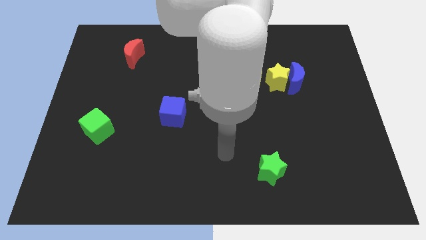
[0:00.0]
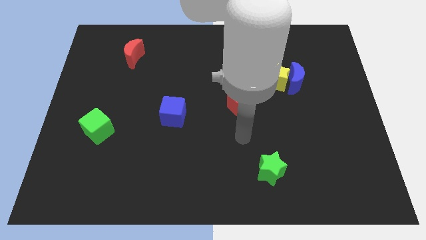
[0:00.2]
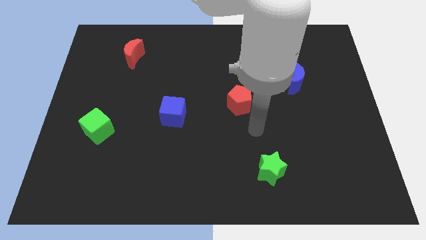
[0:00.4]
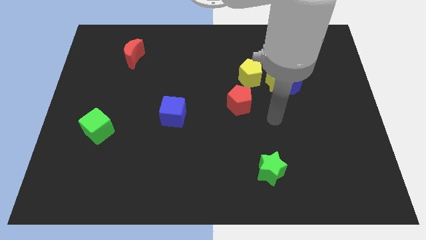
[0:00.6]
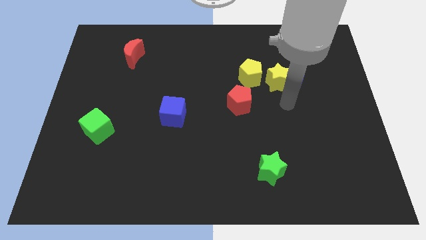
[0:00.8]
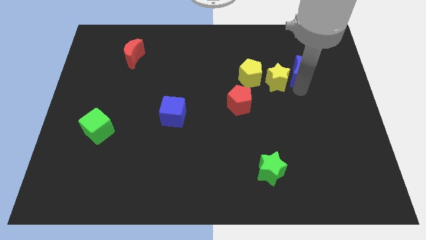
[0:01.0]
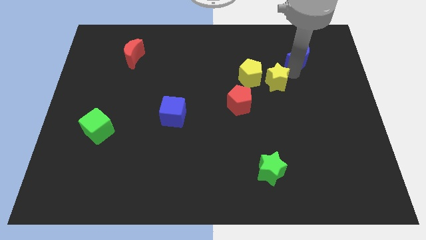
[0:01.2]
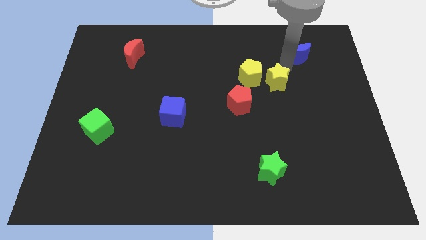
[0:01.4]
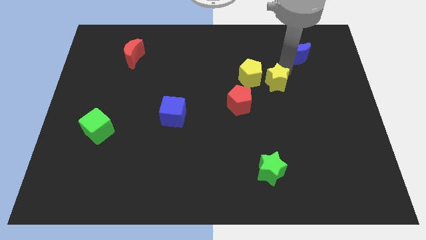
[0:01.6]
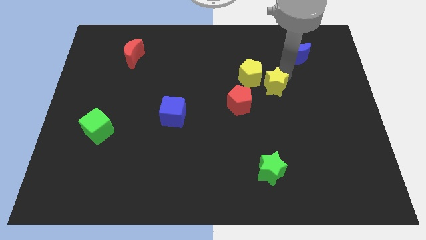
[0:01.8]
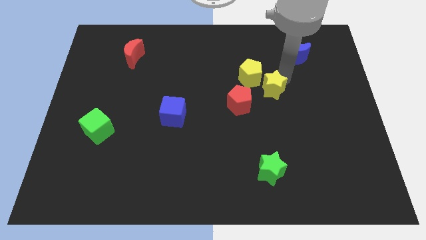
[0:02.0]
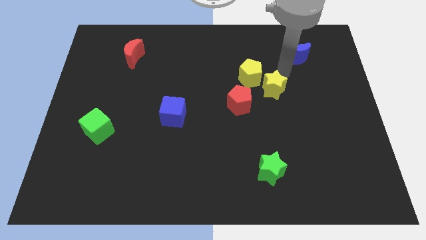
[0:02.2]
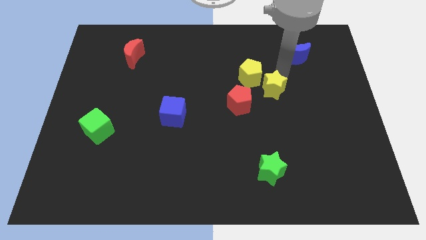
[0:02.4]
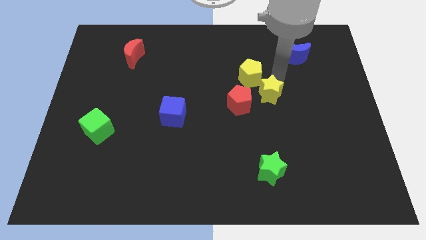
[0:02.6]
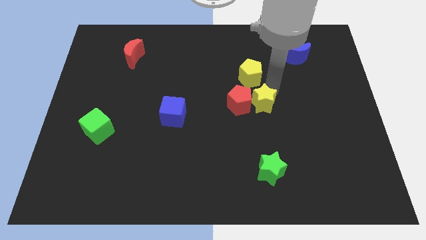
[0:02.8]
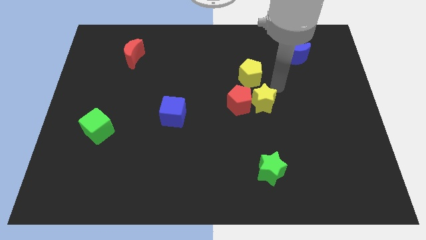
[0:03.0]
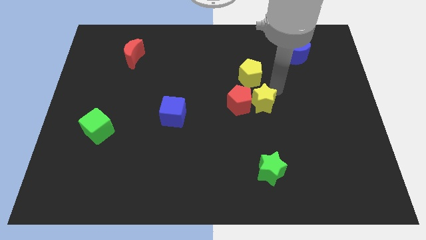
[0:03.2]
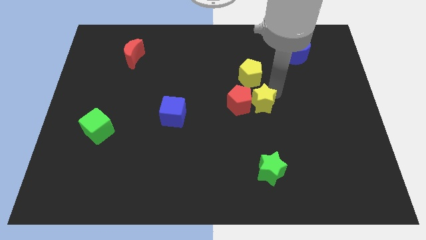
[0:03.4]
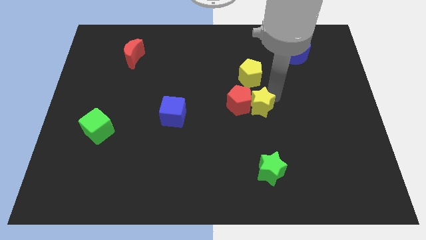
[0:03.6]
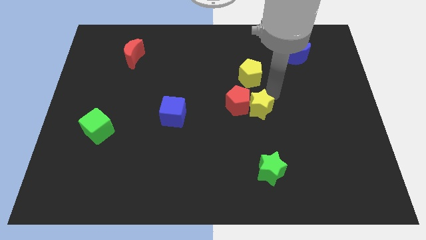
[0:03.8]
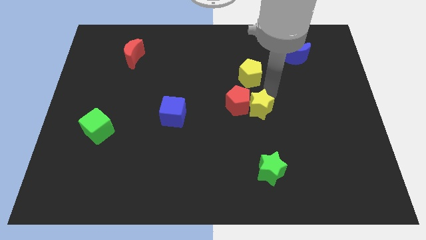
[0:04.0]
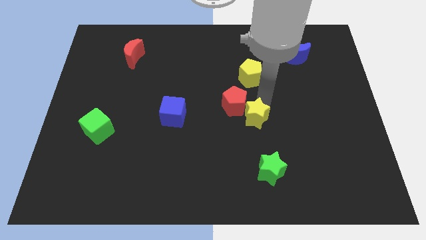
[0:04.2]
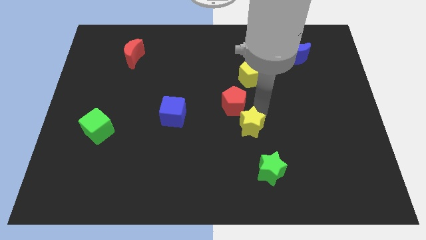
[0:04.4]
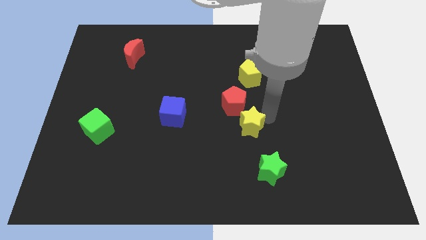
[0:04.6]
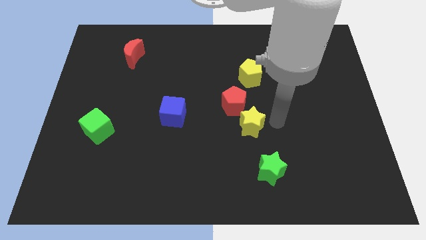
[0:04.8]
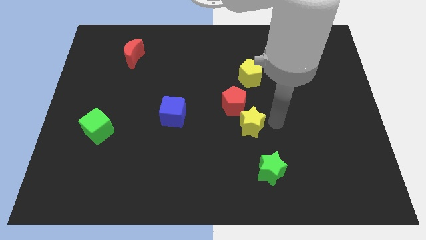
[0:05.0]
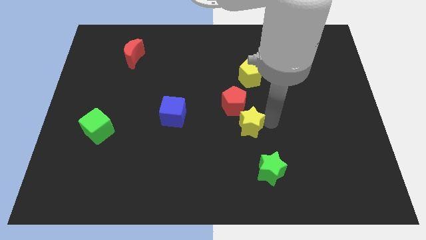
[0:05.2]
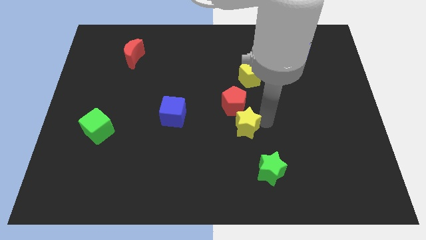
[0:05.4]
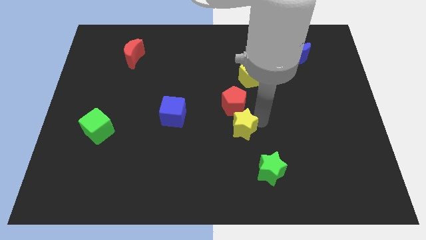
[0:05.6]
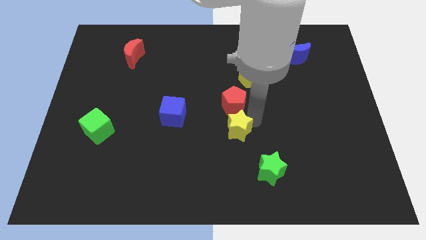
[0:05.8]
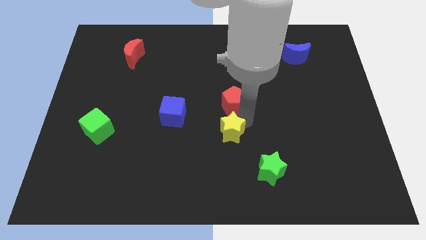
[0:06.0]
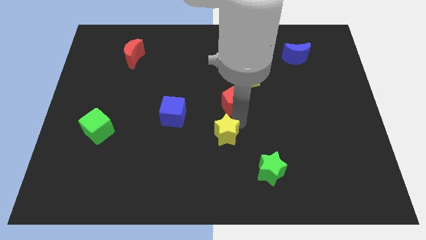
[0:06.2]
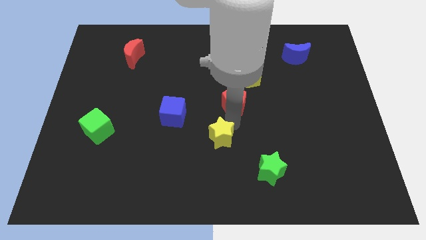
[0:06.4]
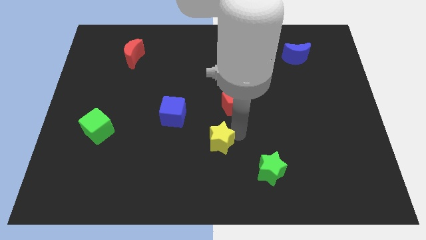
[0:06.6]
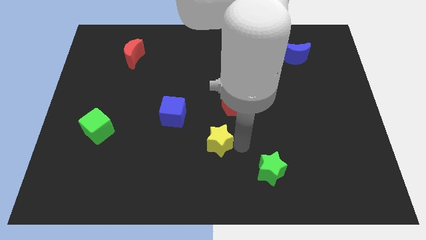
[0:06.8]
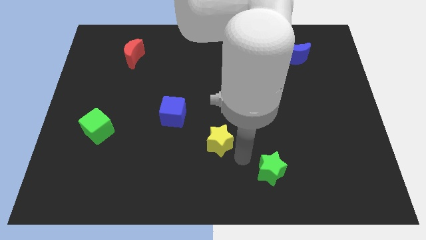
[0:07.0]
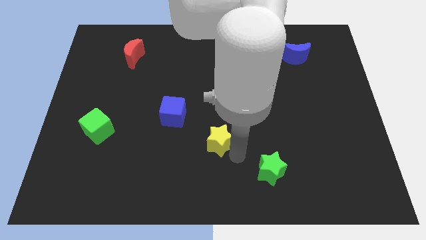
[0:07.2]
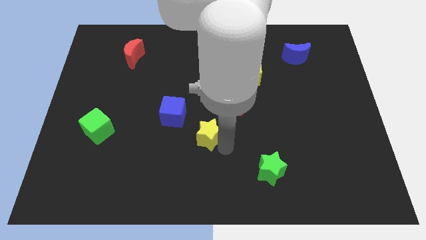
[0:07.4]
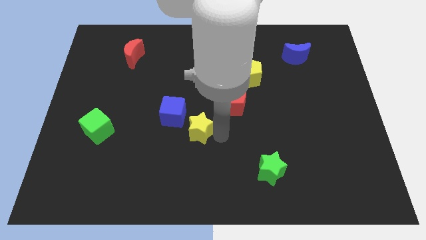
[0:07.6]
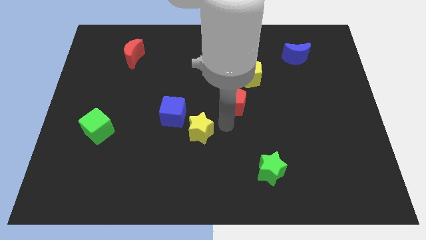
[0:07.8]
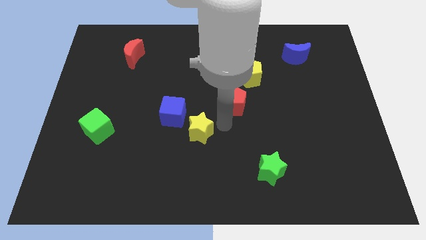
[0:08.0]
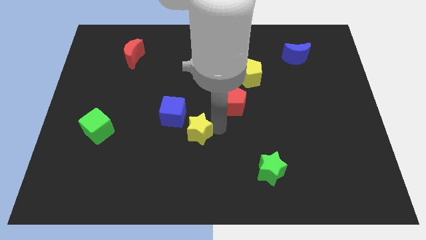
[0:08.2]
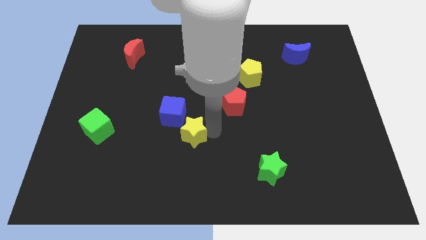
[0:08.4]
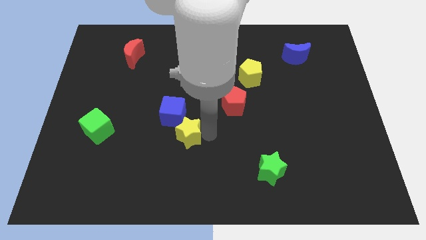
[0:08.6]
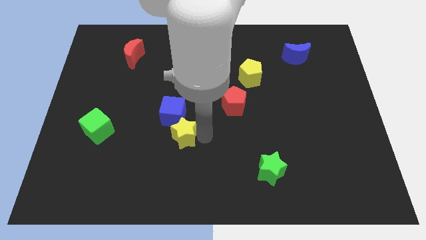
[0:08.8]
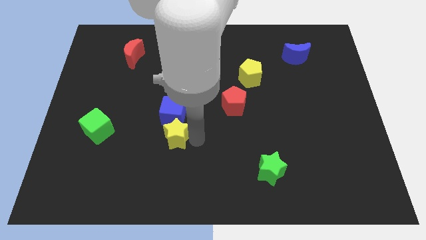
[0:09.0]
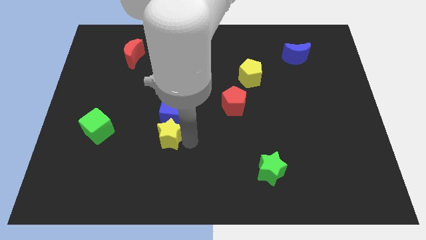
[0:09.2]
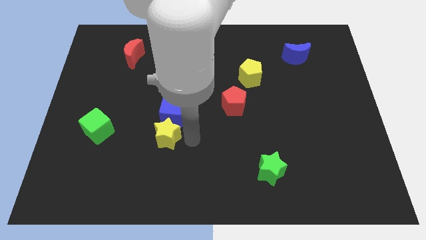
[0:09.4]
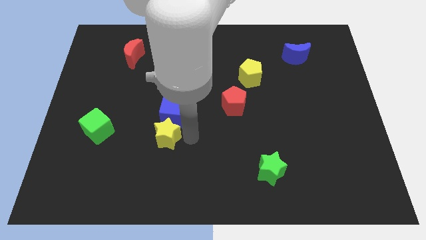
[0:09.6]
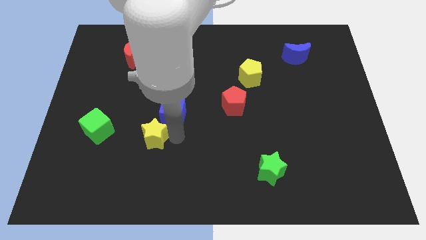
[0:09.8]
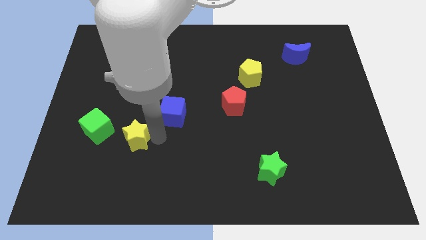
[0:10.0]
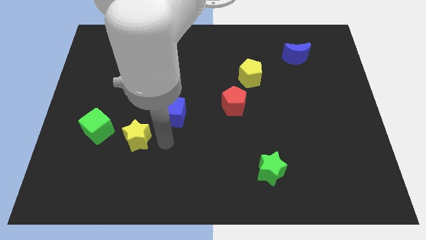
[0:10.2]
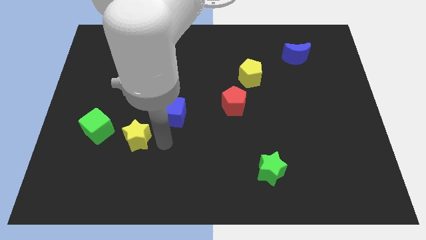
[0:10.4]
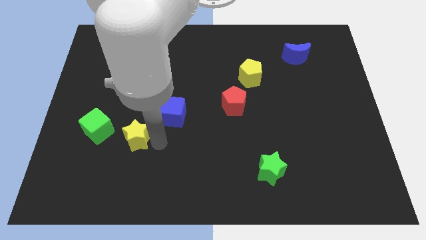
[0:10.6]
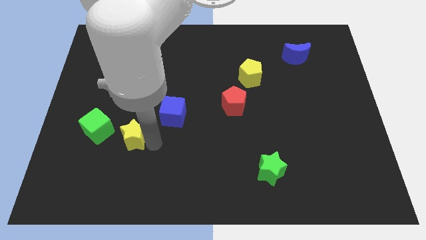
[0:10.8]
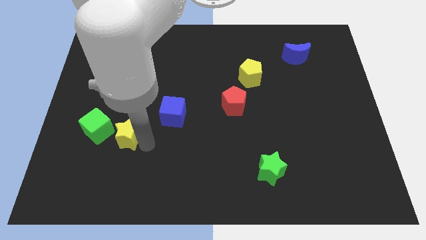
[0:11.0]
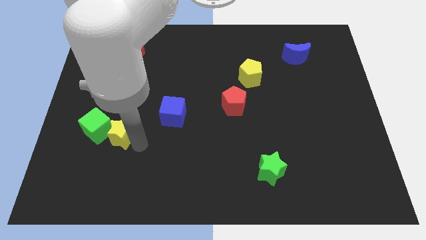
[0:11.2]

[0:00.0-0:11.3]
push the yellow star to the green cube

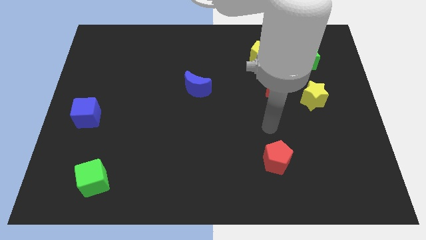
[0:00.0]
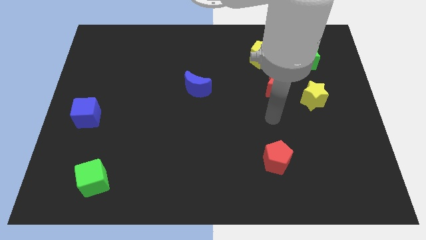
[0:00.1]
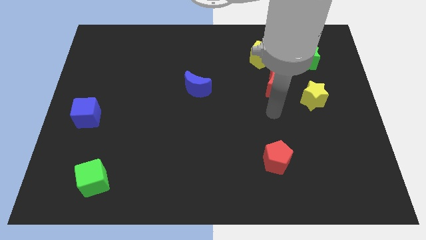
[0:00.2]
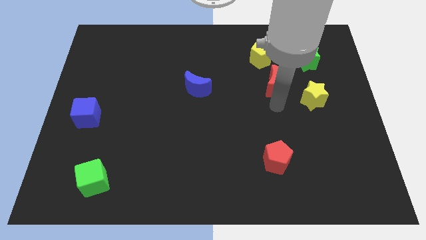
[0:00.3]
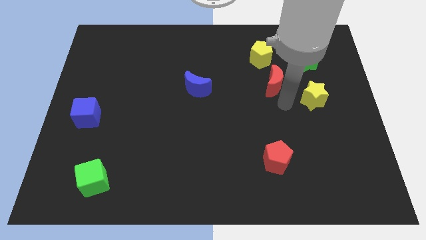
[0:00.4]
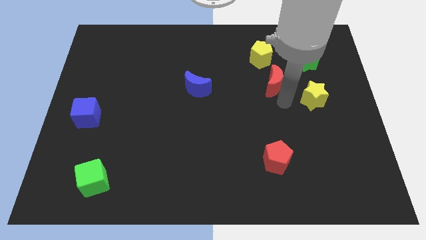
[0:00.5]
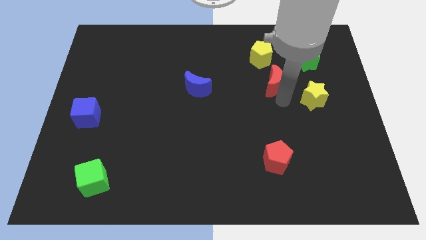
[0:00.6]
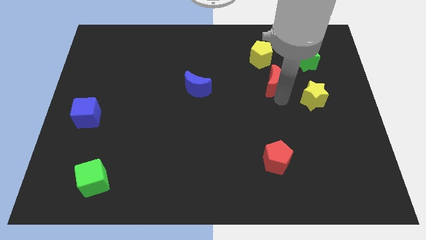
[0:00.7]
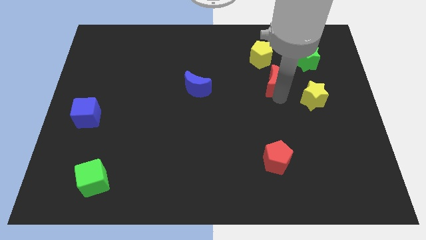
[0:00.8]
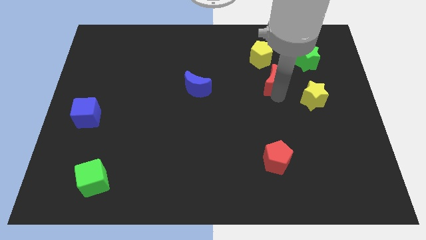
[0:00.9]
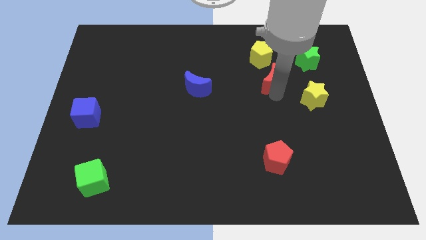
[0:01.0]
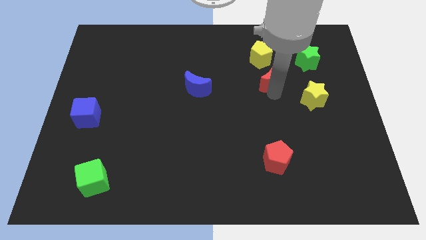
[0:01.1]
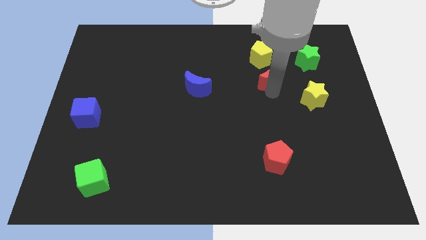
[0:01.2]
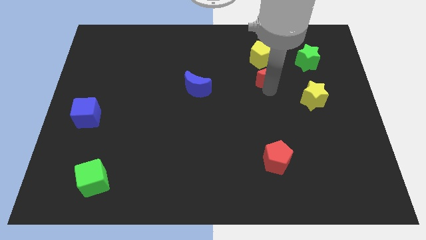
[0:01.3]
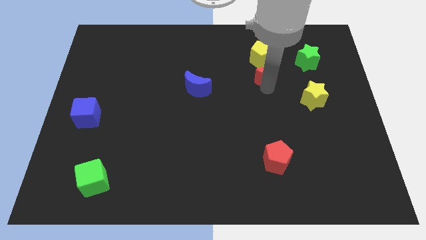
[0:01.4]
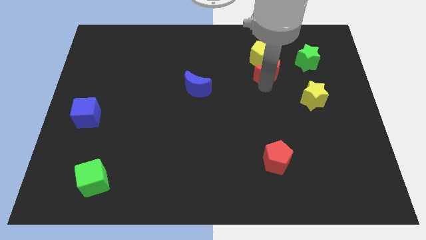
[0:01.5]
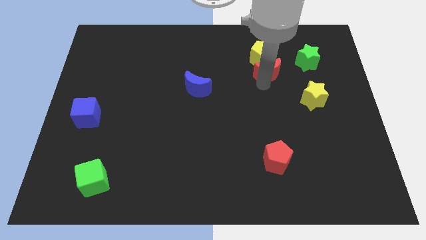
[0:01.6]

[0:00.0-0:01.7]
slide the red moon close to the yellow pentagon

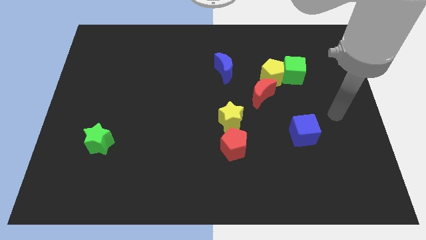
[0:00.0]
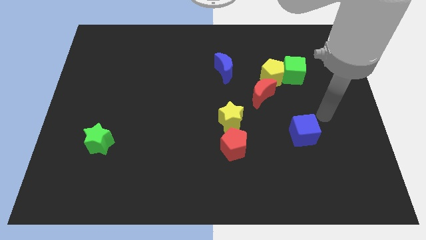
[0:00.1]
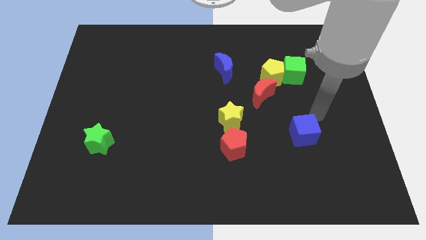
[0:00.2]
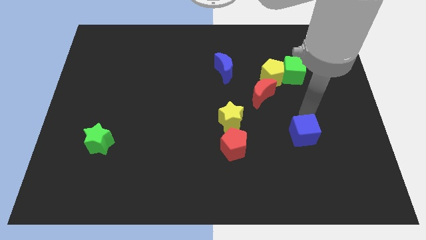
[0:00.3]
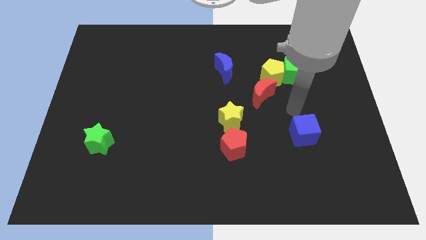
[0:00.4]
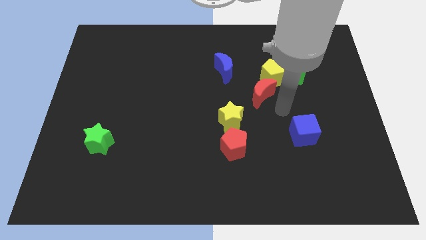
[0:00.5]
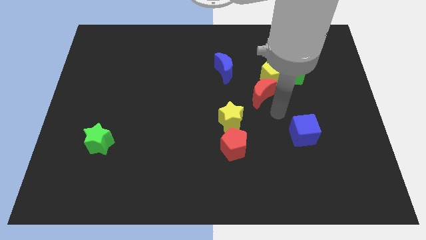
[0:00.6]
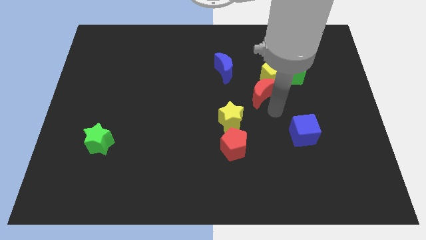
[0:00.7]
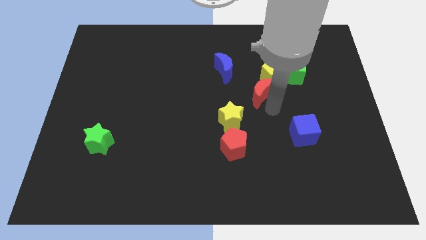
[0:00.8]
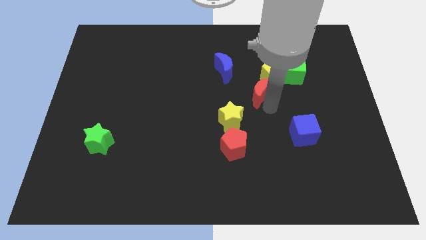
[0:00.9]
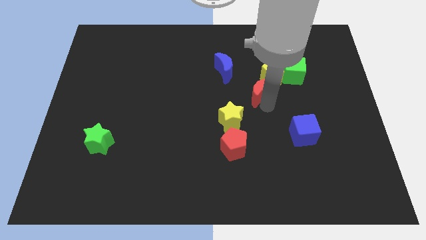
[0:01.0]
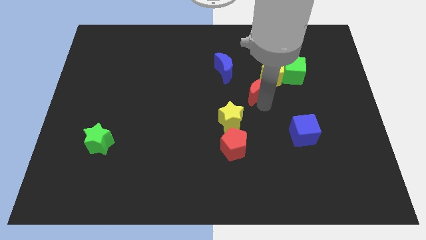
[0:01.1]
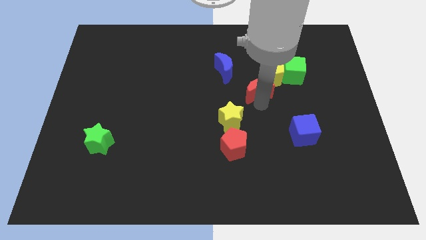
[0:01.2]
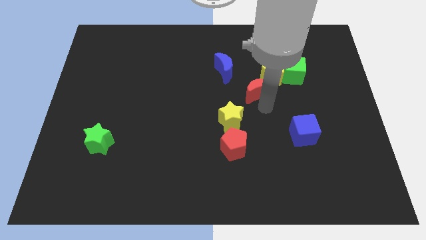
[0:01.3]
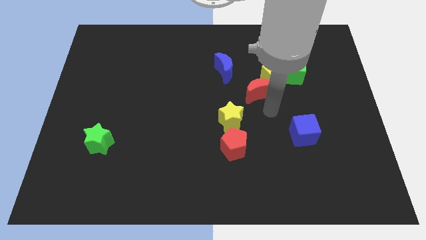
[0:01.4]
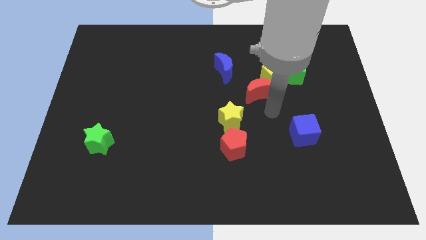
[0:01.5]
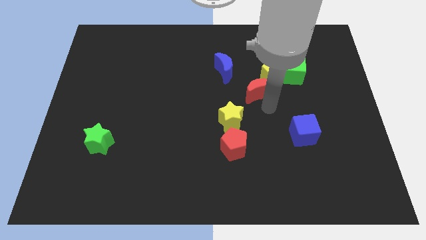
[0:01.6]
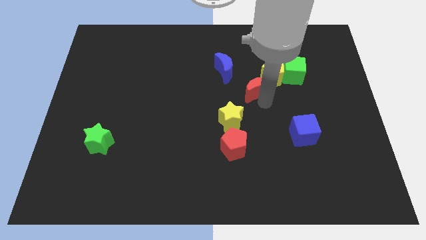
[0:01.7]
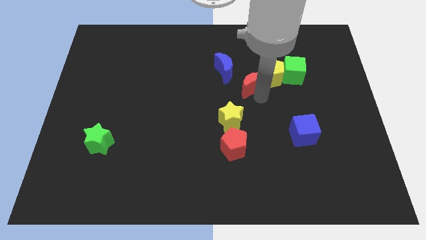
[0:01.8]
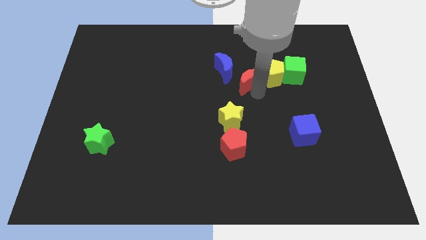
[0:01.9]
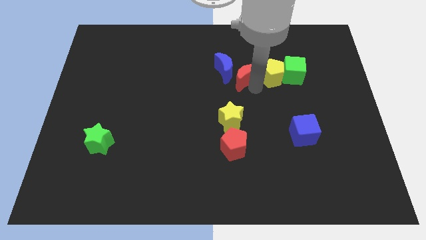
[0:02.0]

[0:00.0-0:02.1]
slide the red moon to the blue moon
